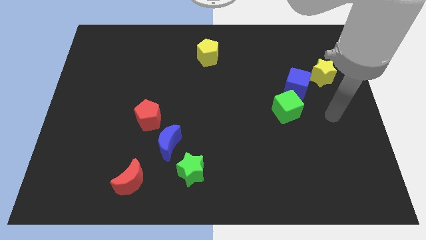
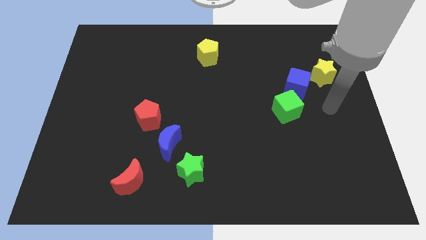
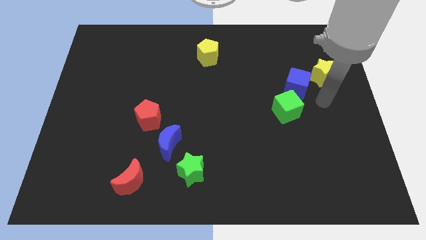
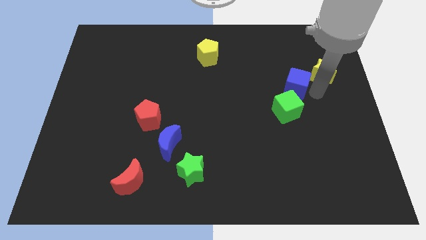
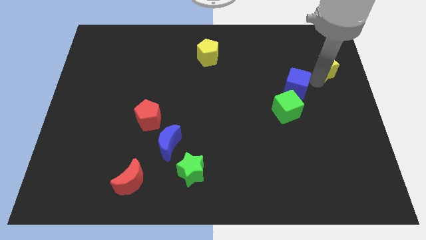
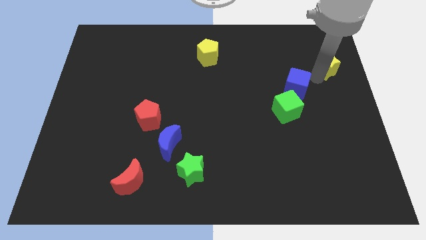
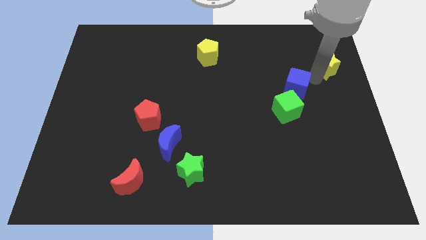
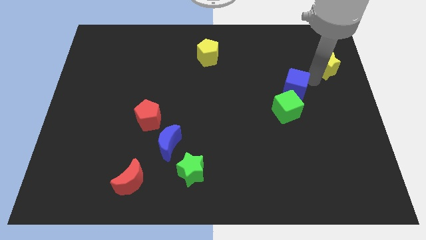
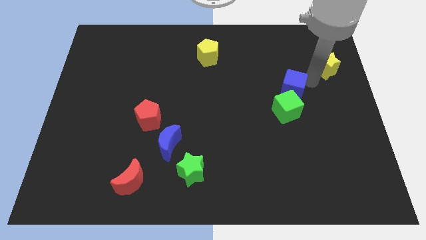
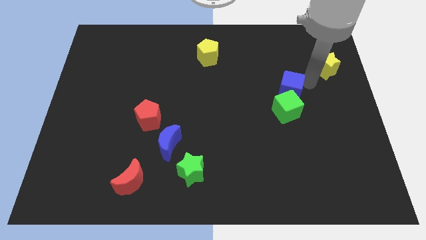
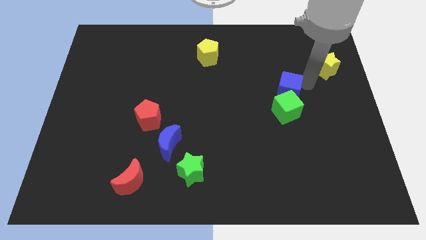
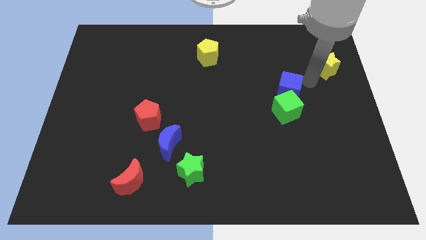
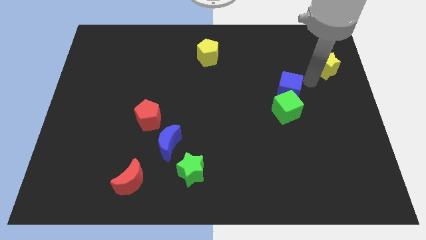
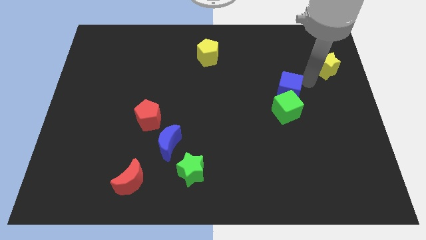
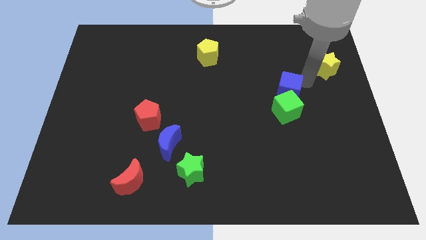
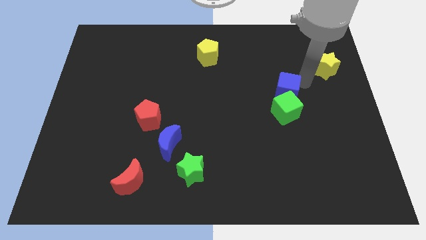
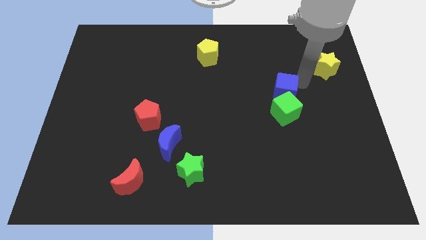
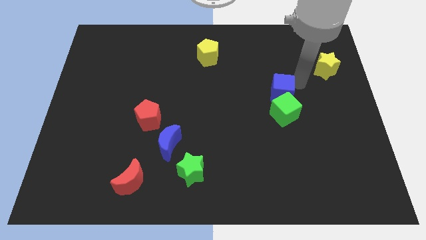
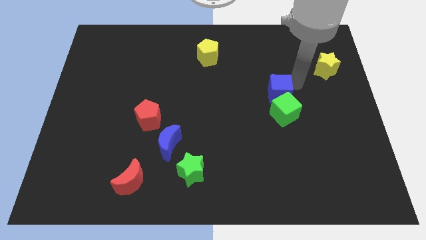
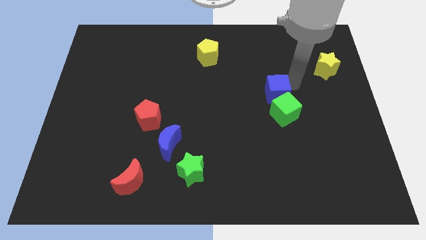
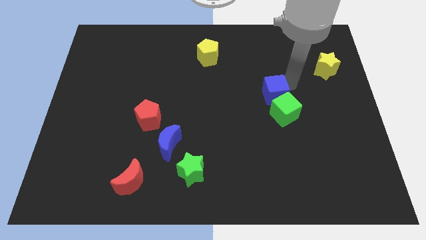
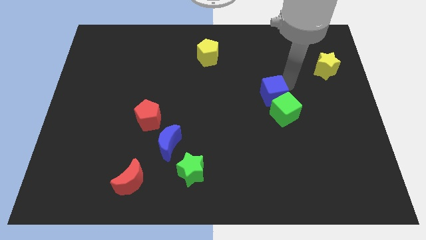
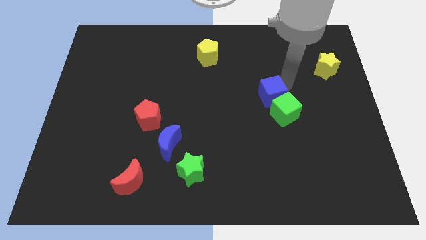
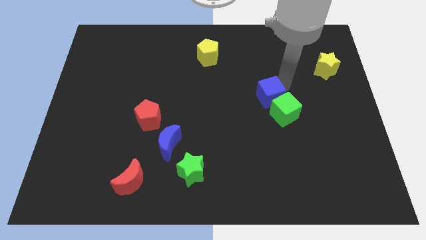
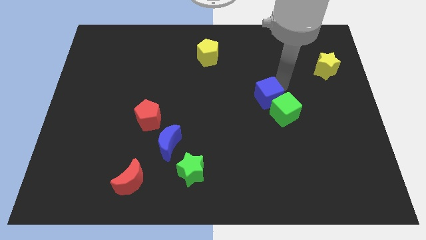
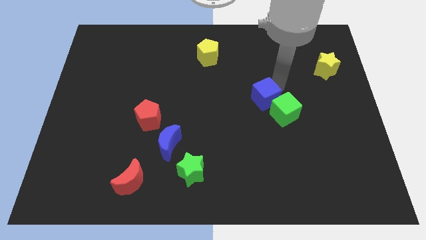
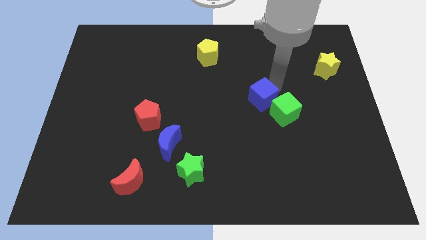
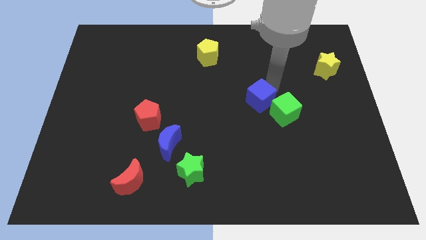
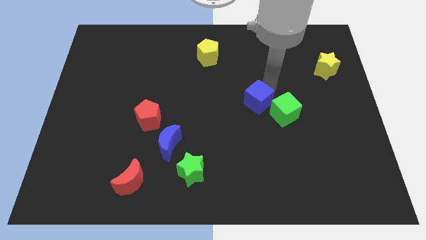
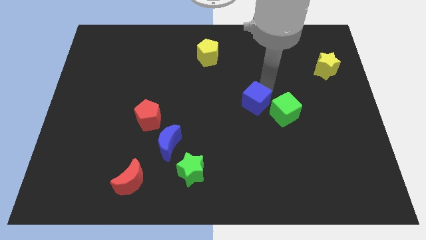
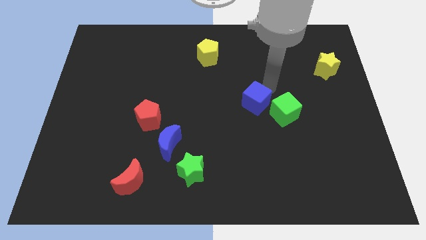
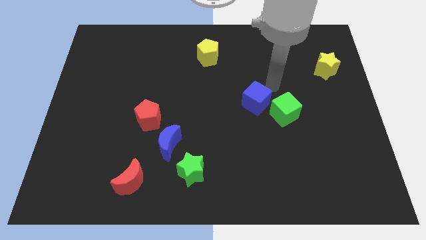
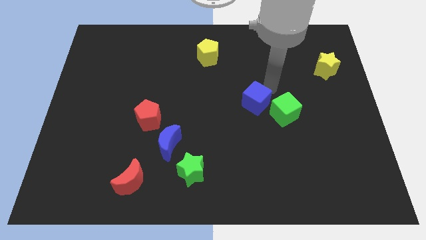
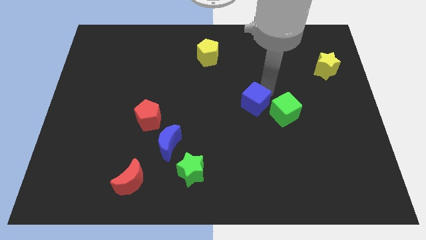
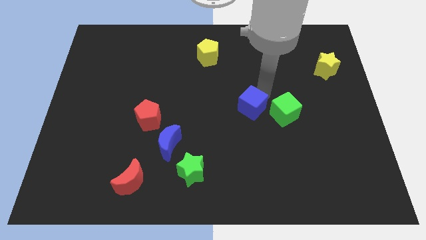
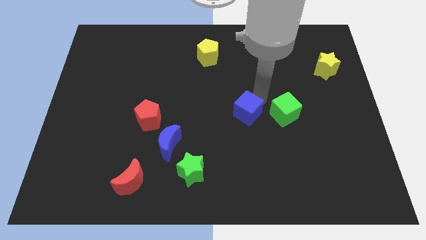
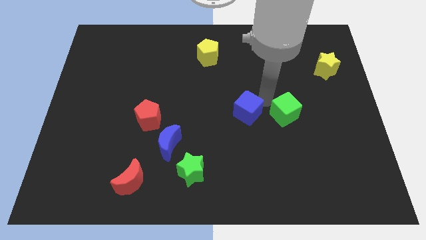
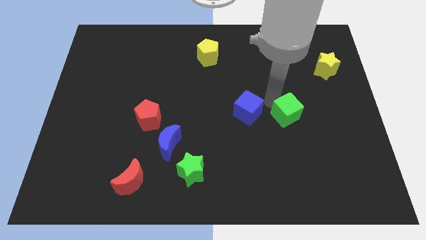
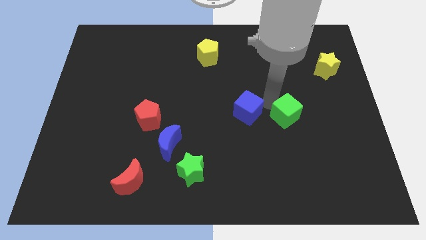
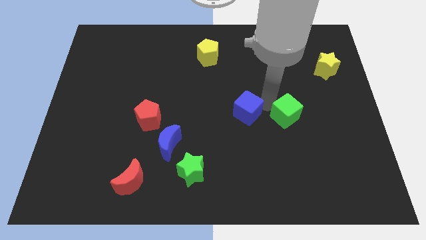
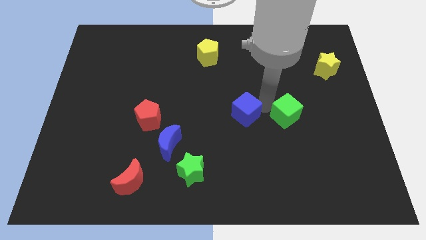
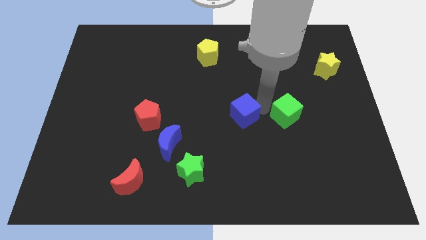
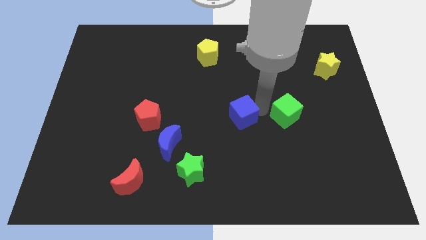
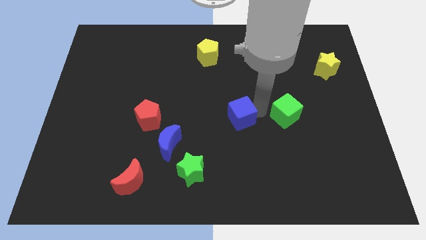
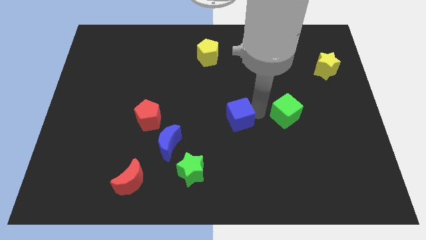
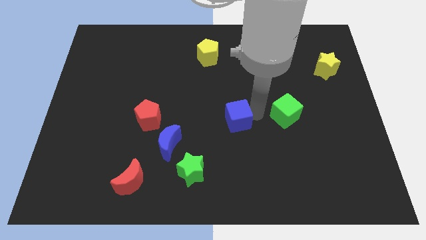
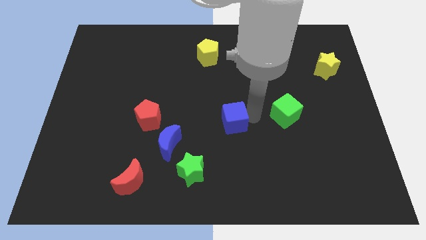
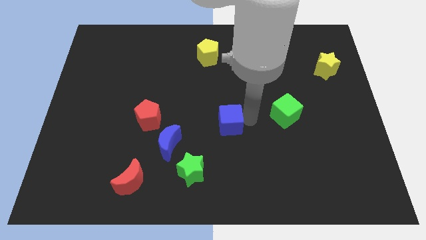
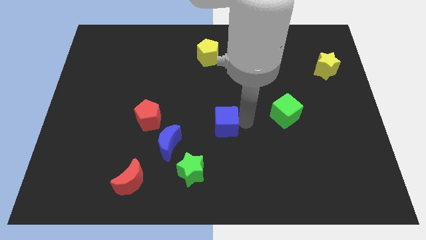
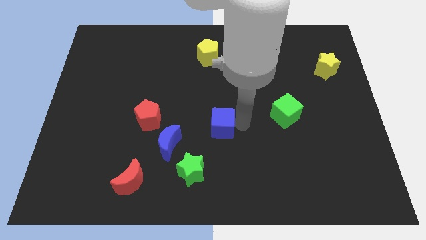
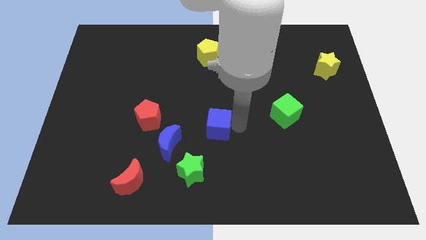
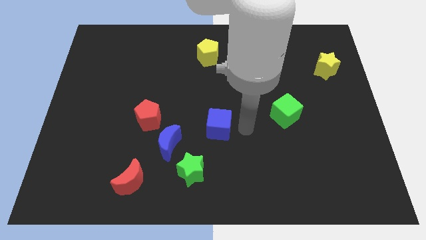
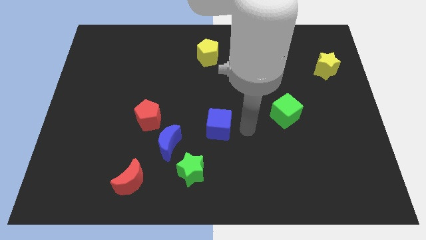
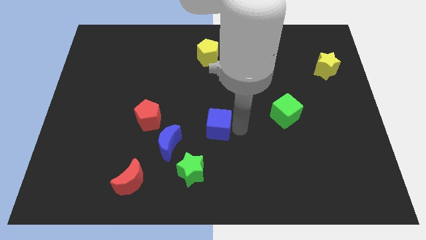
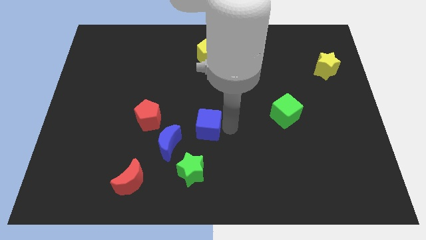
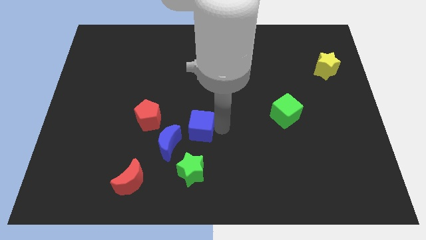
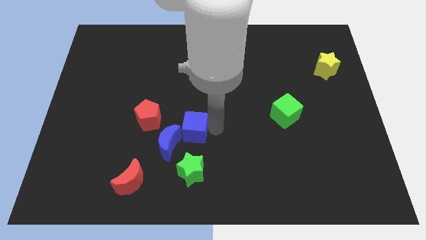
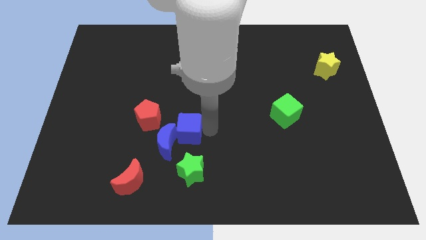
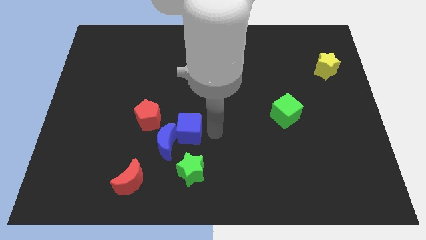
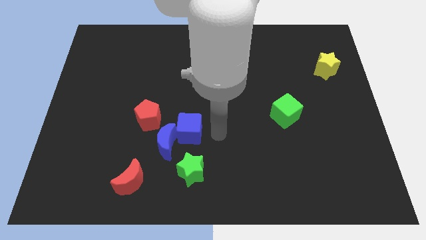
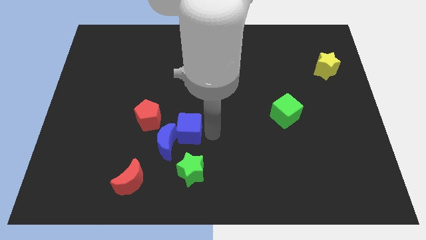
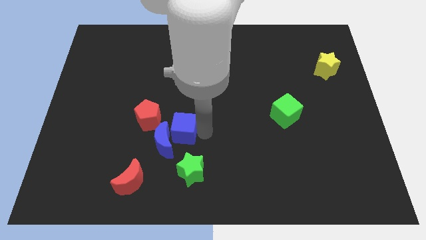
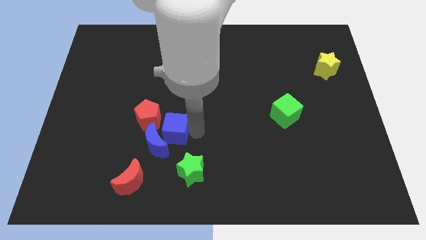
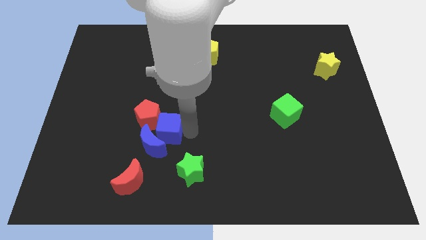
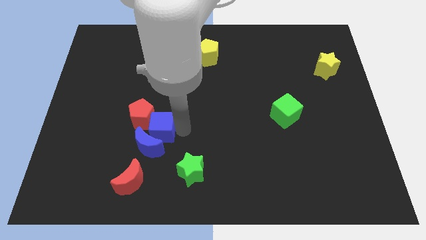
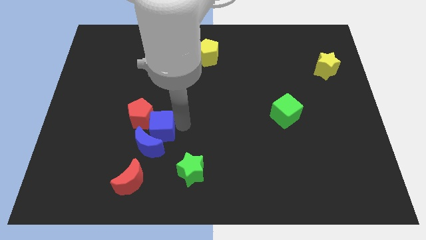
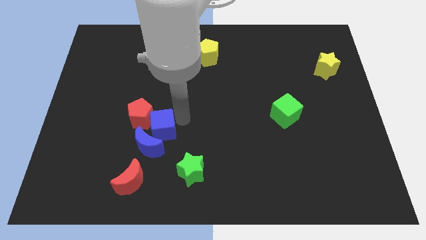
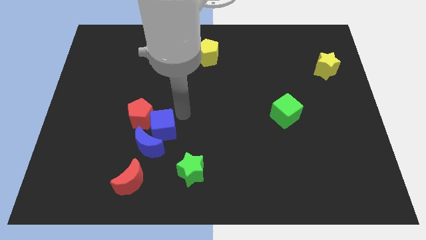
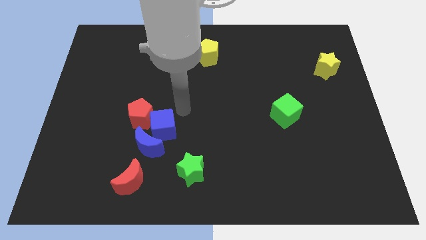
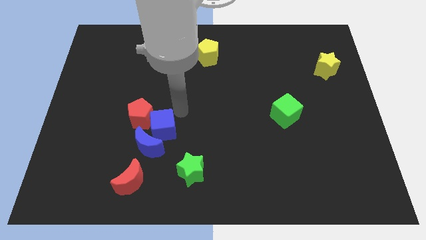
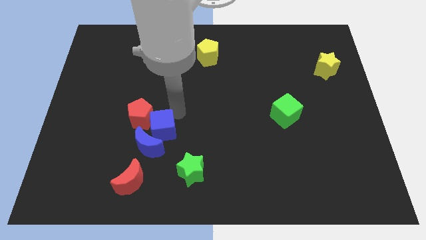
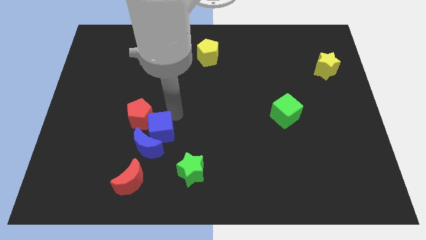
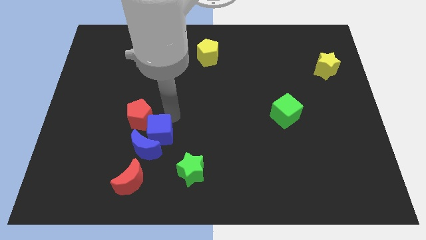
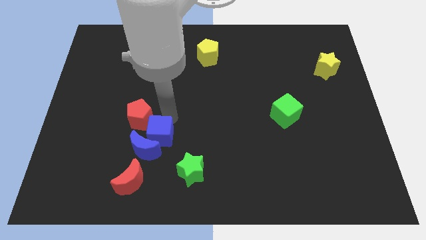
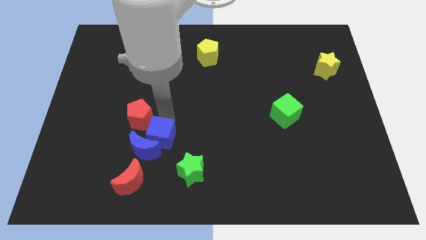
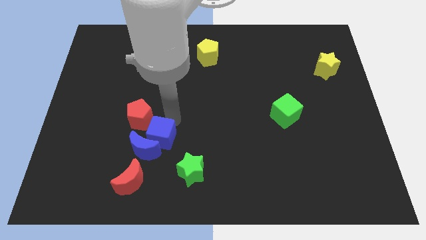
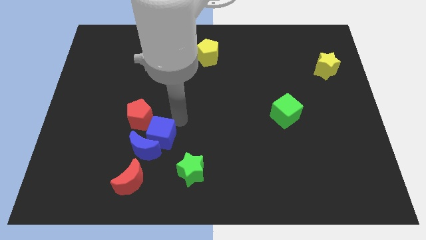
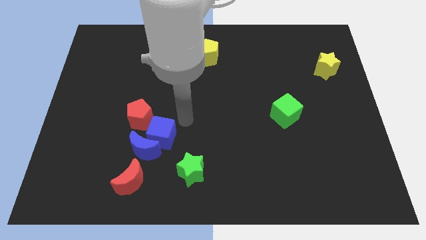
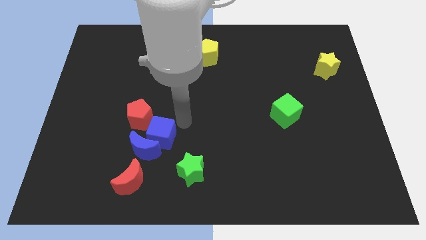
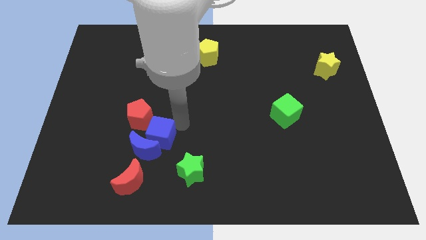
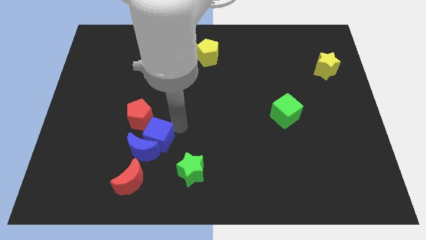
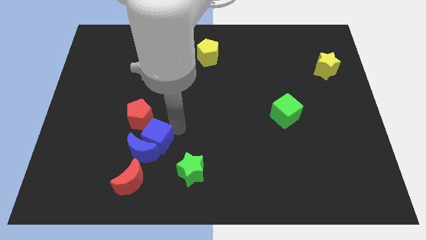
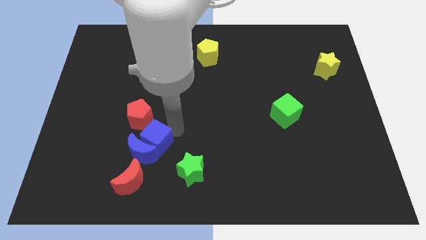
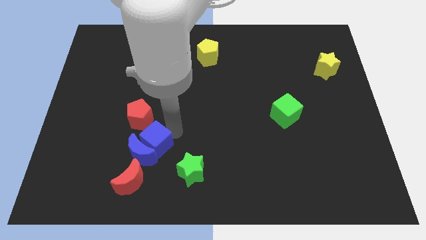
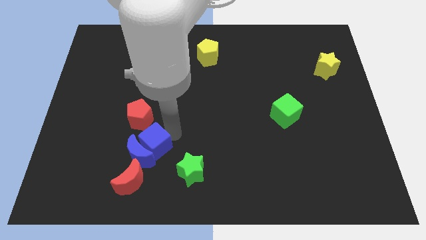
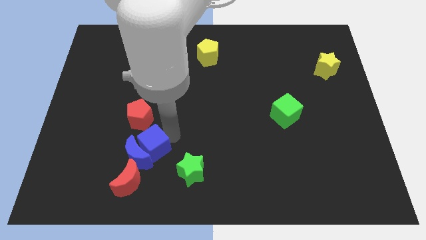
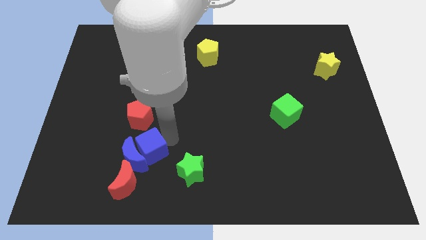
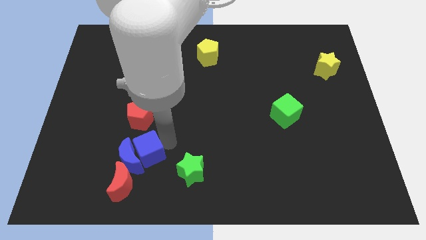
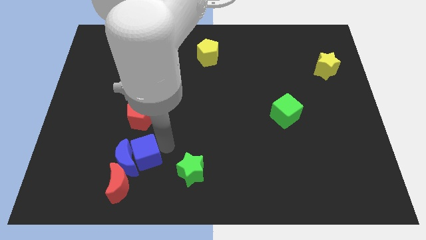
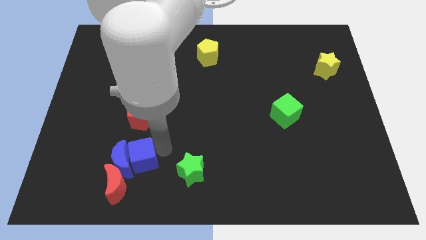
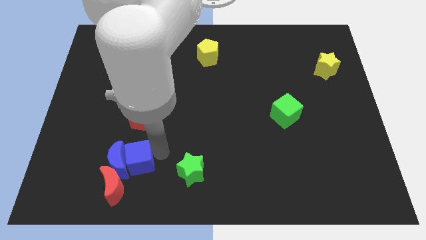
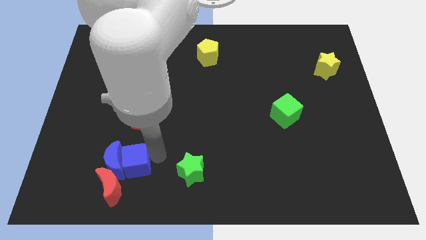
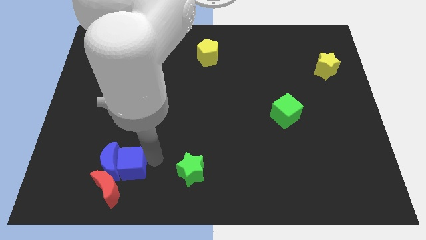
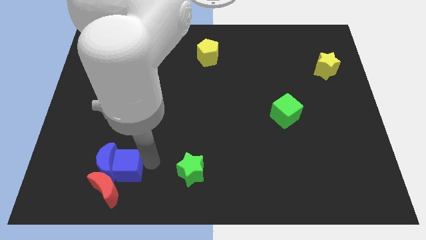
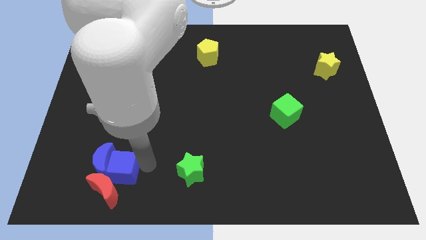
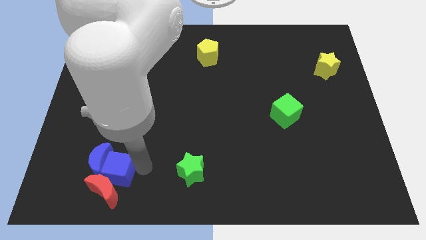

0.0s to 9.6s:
put the blue cube to the top left of the red moon
